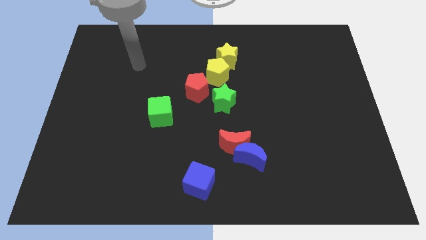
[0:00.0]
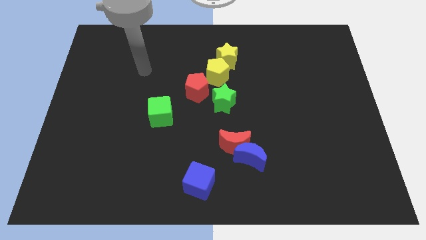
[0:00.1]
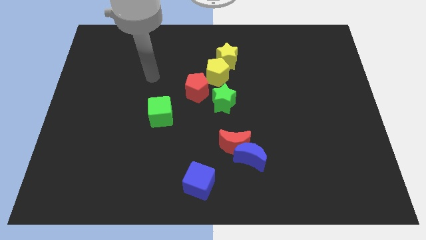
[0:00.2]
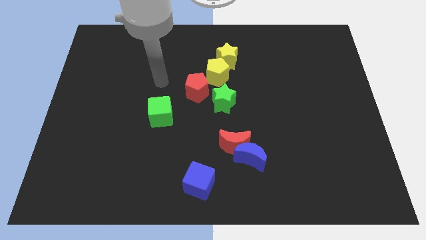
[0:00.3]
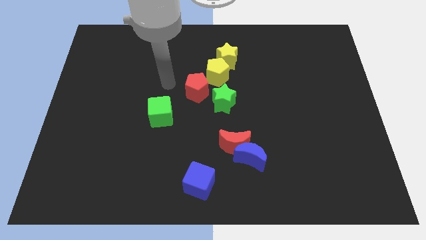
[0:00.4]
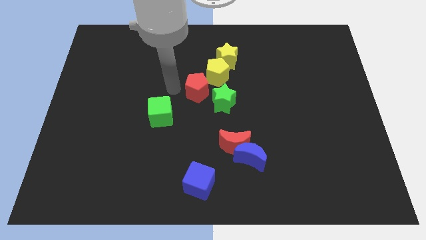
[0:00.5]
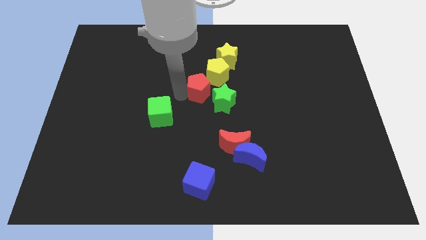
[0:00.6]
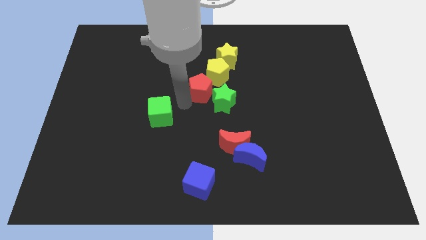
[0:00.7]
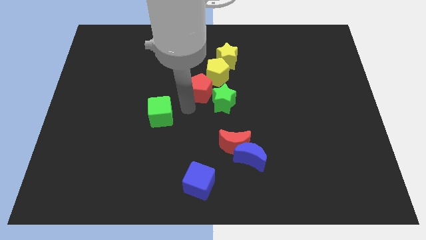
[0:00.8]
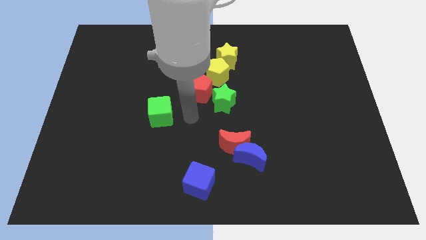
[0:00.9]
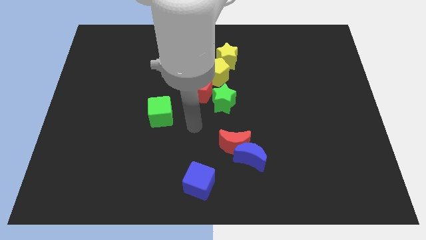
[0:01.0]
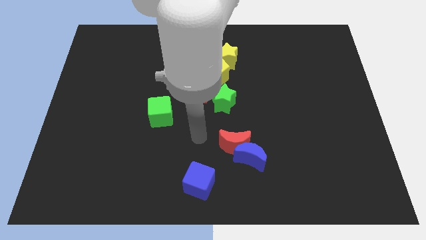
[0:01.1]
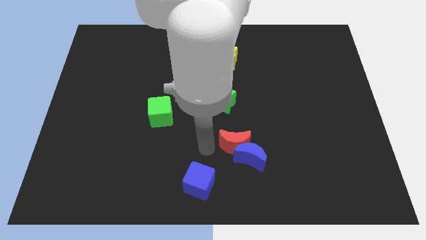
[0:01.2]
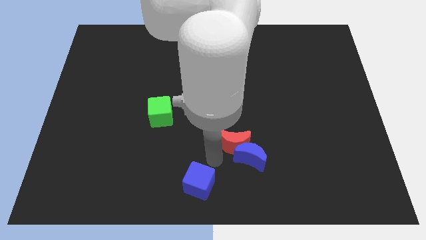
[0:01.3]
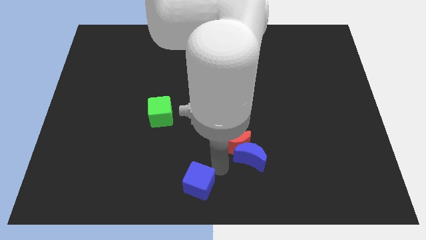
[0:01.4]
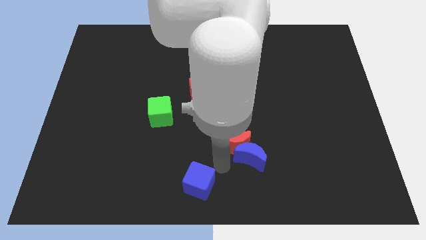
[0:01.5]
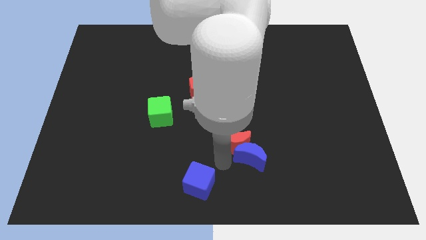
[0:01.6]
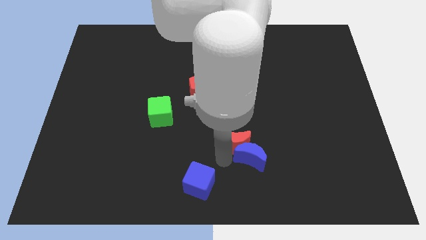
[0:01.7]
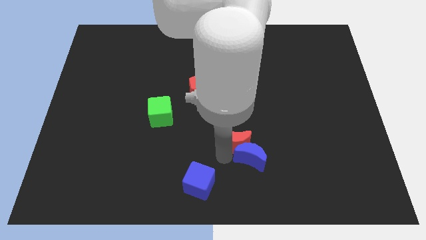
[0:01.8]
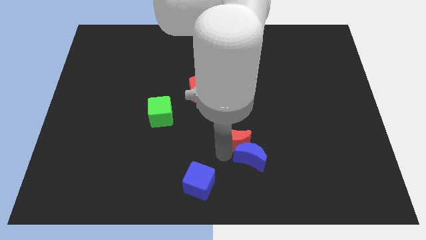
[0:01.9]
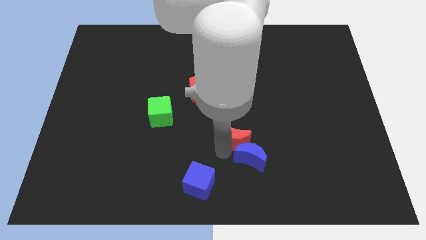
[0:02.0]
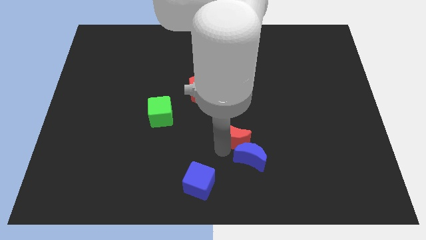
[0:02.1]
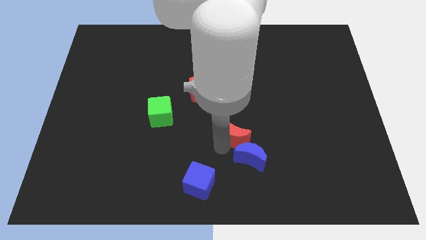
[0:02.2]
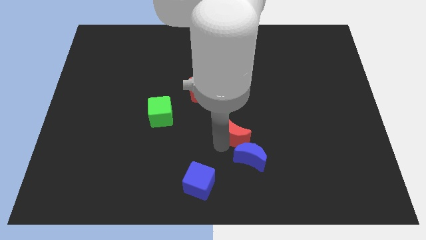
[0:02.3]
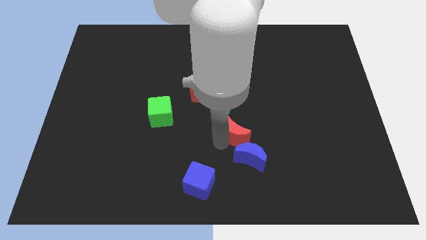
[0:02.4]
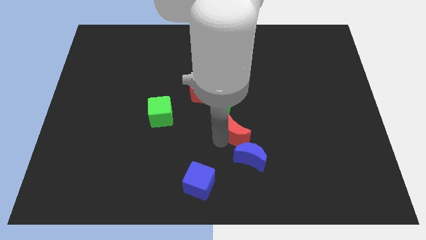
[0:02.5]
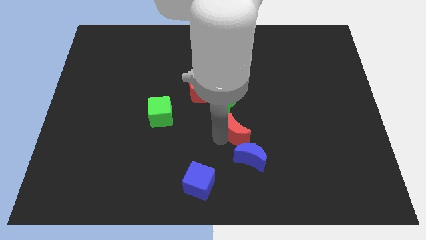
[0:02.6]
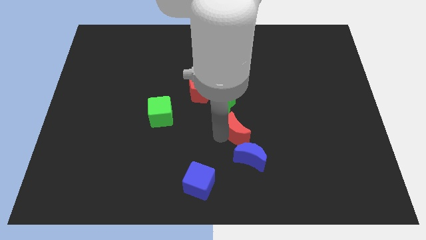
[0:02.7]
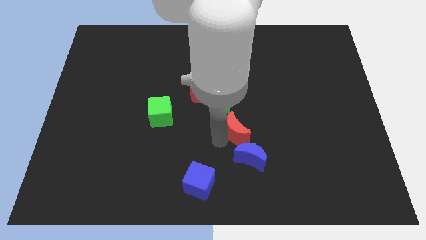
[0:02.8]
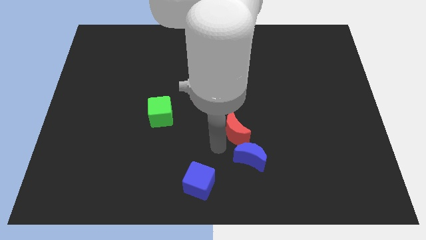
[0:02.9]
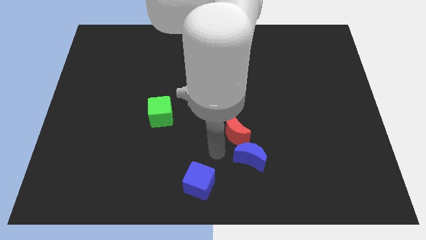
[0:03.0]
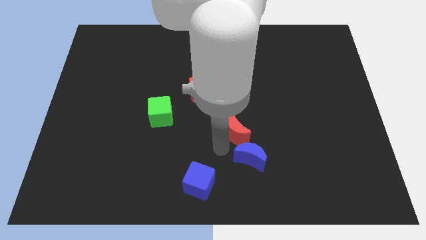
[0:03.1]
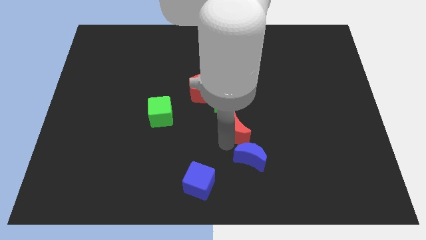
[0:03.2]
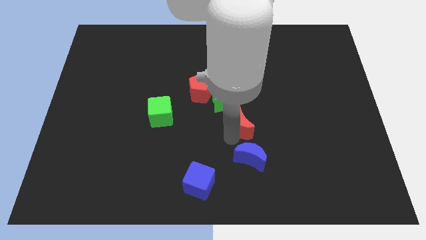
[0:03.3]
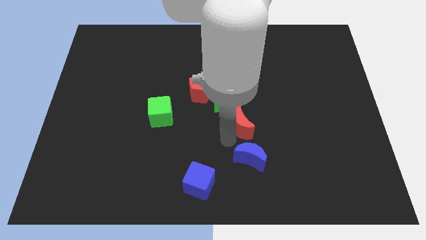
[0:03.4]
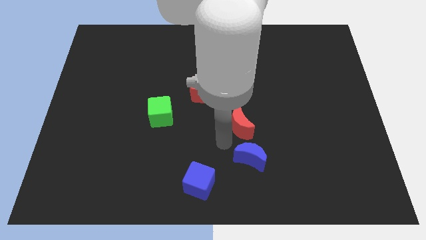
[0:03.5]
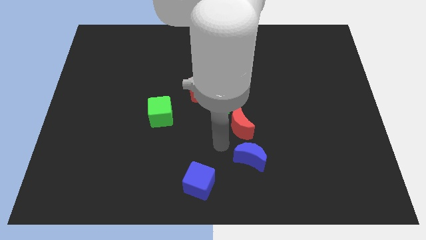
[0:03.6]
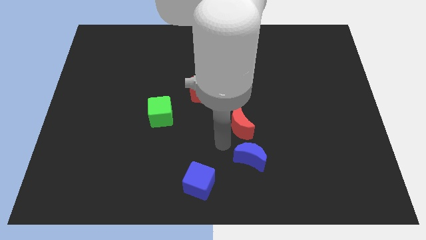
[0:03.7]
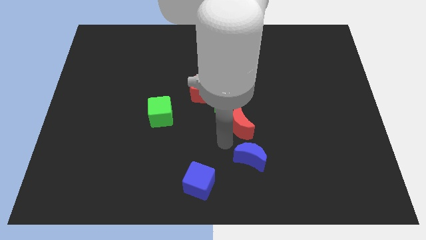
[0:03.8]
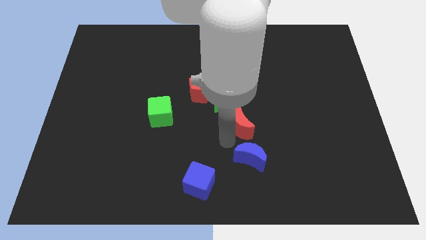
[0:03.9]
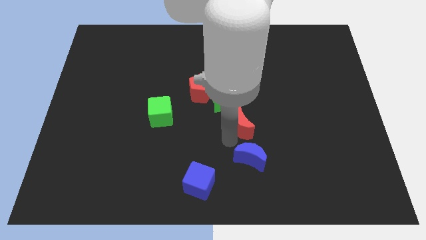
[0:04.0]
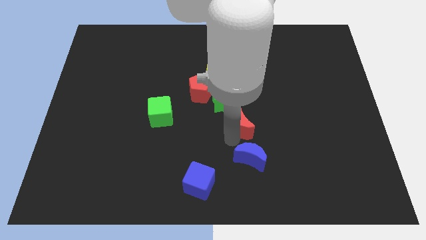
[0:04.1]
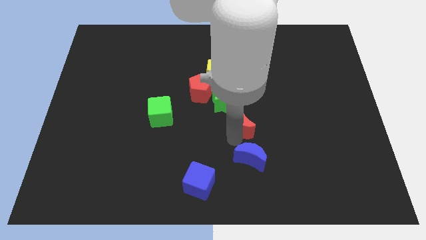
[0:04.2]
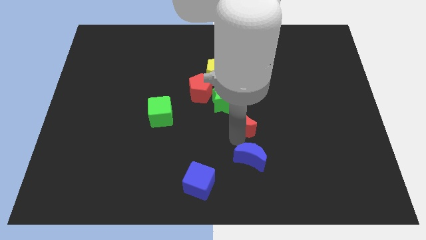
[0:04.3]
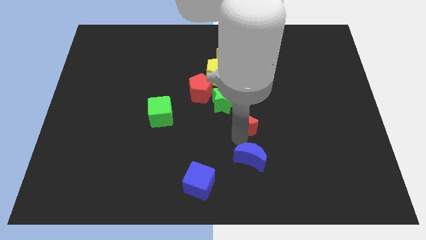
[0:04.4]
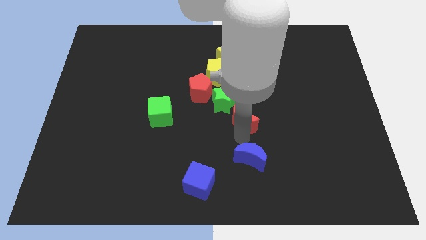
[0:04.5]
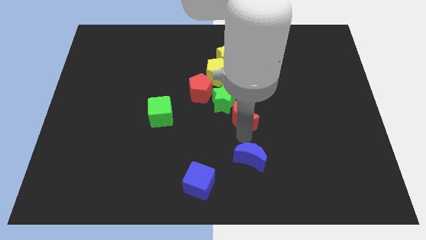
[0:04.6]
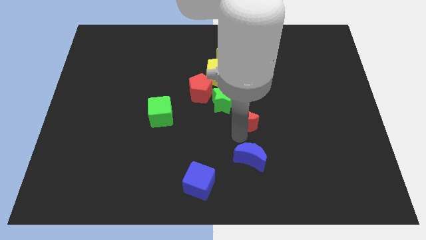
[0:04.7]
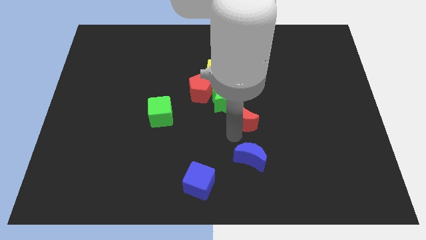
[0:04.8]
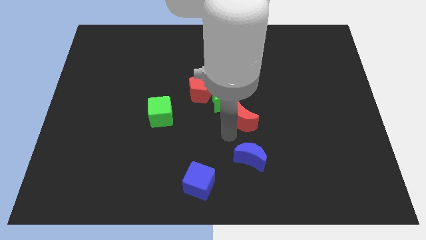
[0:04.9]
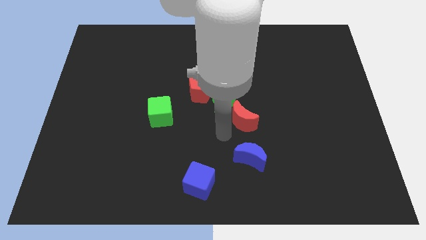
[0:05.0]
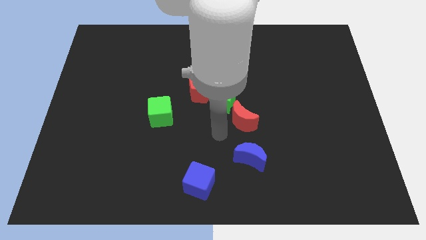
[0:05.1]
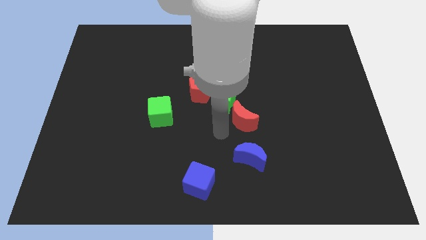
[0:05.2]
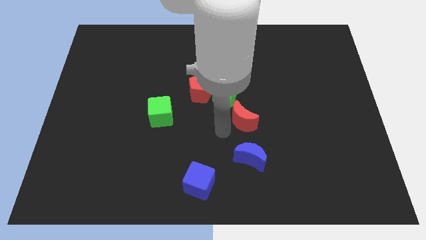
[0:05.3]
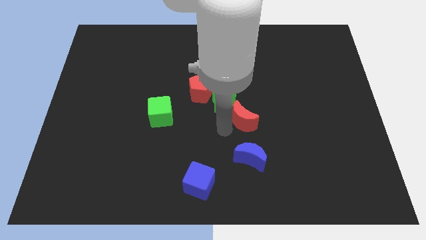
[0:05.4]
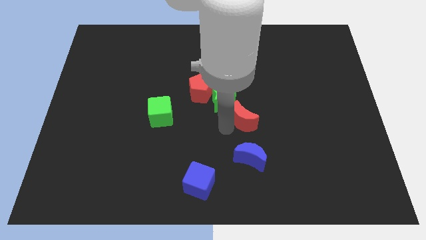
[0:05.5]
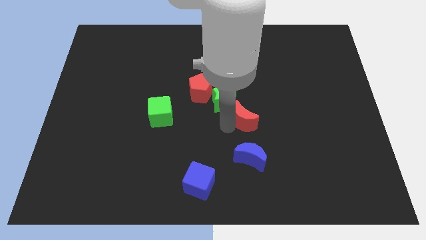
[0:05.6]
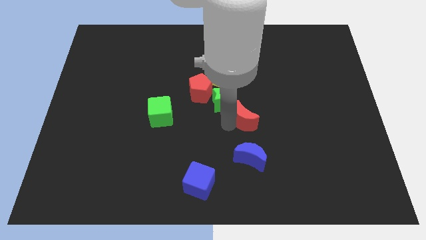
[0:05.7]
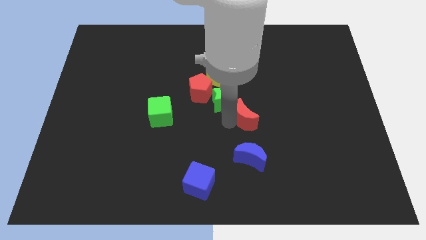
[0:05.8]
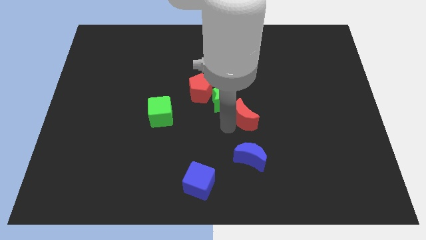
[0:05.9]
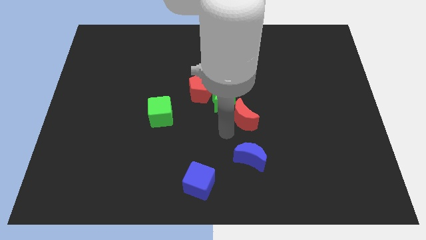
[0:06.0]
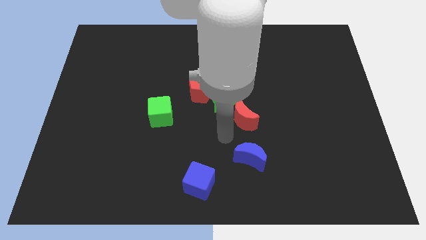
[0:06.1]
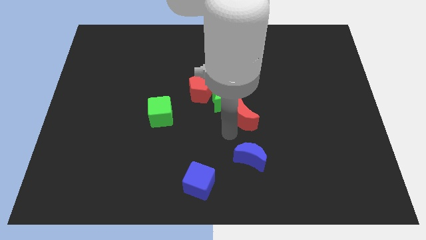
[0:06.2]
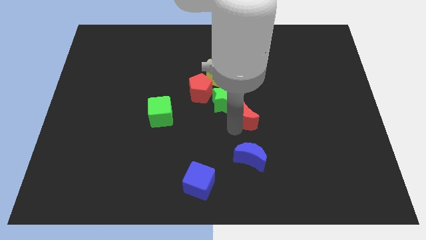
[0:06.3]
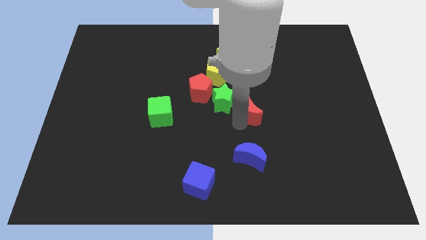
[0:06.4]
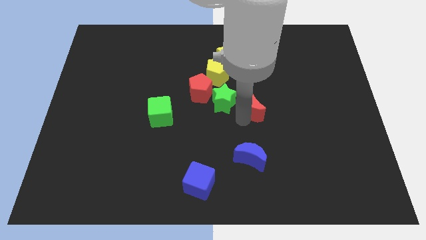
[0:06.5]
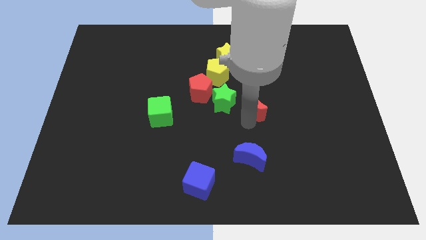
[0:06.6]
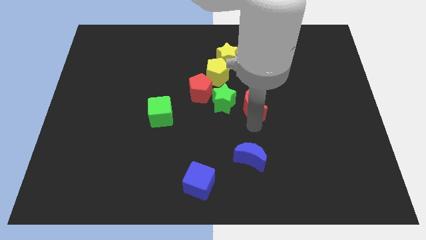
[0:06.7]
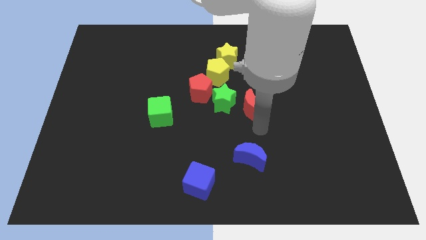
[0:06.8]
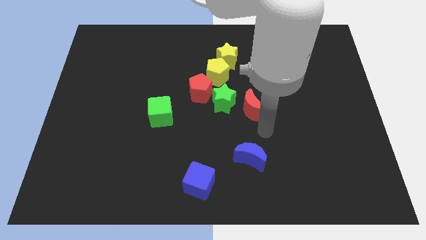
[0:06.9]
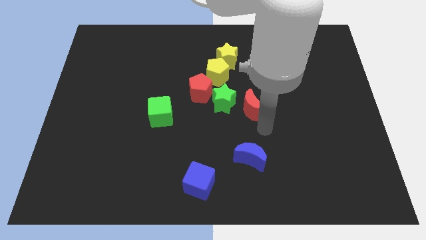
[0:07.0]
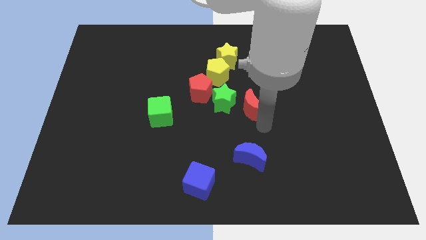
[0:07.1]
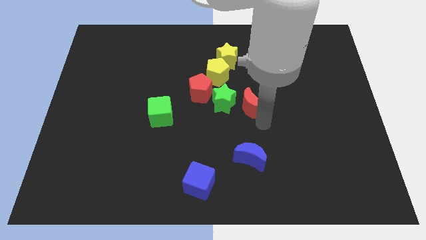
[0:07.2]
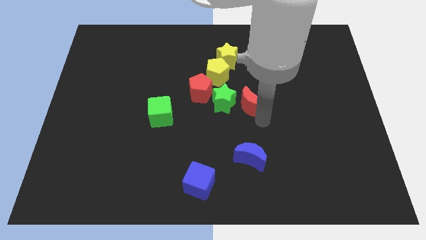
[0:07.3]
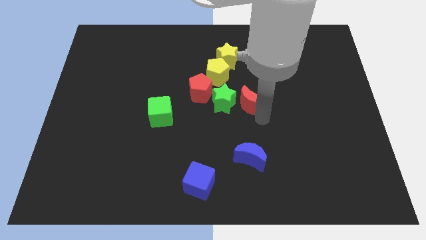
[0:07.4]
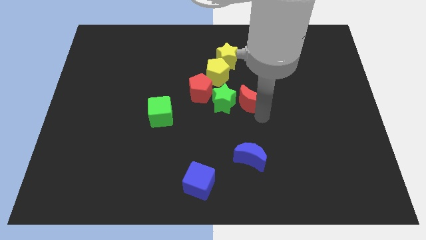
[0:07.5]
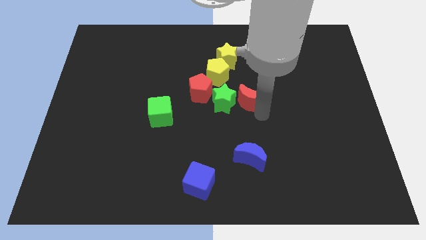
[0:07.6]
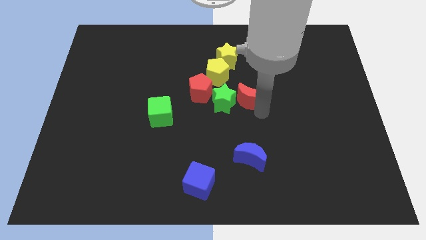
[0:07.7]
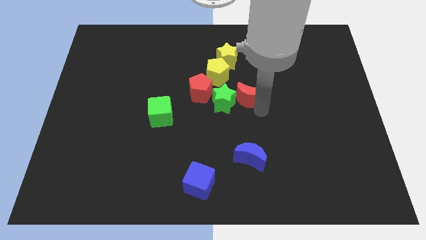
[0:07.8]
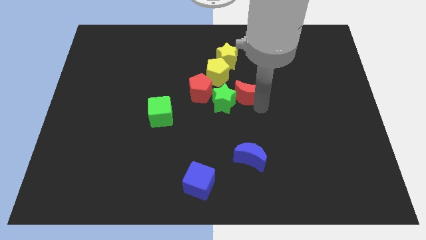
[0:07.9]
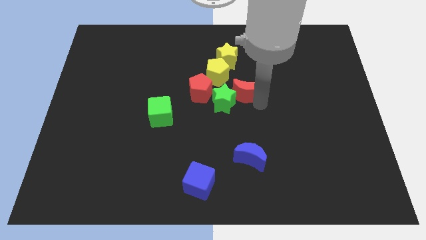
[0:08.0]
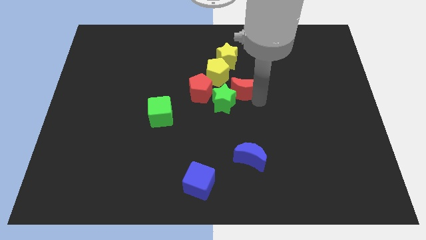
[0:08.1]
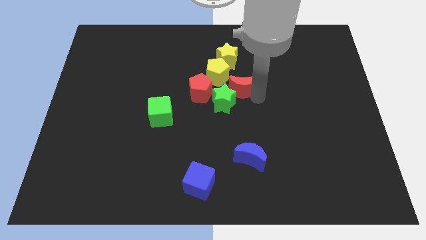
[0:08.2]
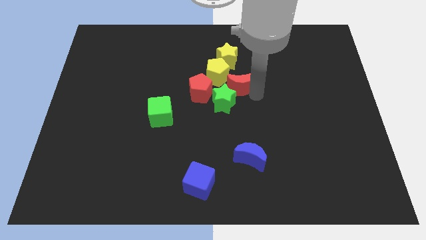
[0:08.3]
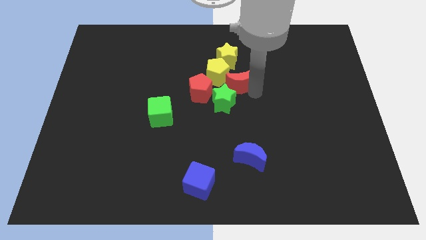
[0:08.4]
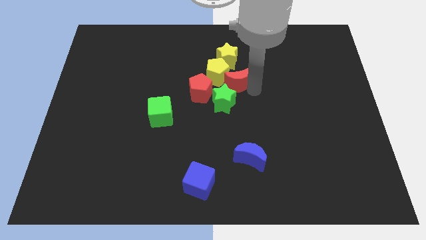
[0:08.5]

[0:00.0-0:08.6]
put the red moon towards the yellow pentagon
